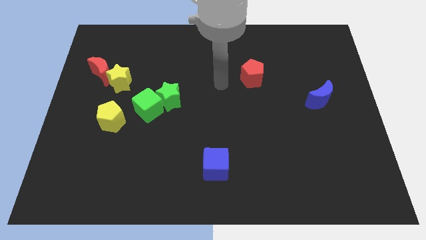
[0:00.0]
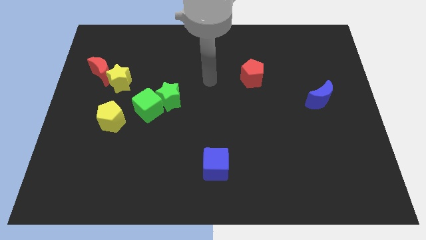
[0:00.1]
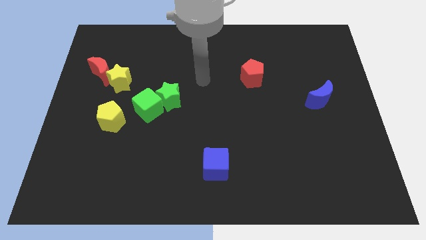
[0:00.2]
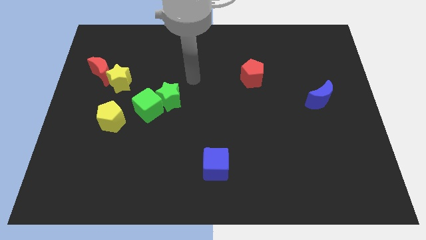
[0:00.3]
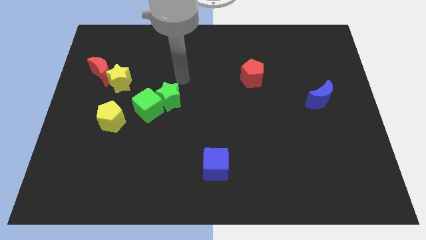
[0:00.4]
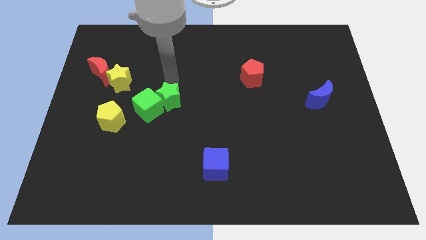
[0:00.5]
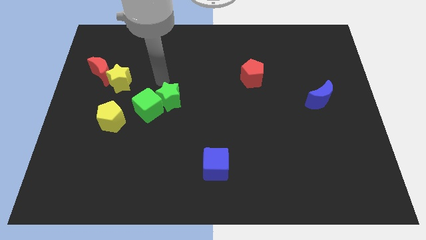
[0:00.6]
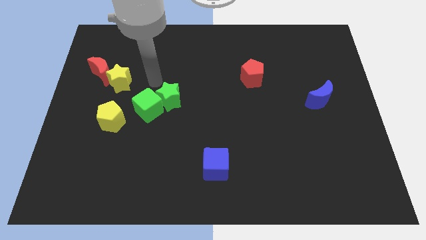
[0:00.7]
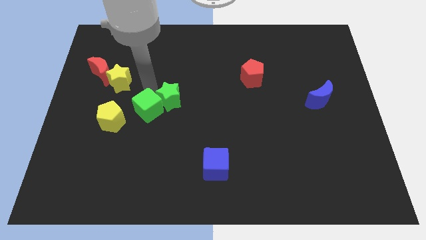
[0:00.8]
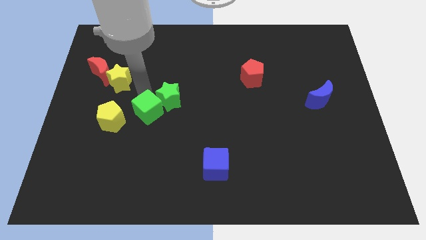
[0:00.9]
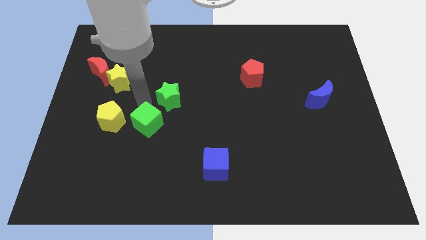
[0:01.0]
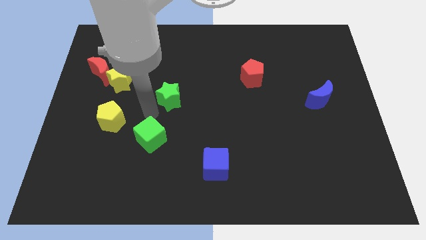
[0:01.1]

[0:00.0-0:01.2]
move the green star away from the green cube

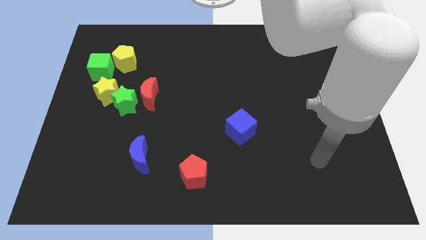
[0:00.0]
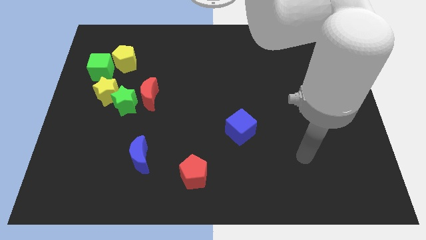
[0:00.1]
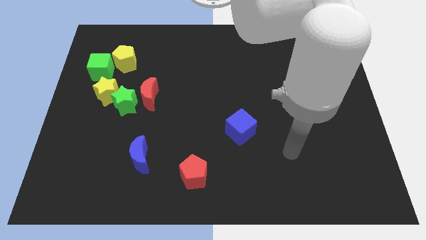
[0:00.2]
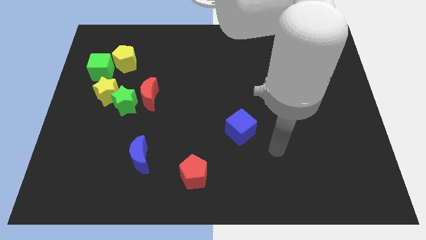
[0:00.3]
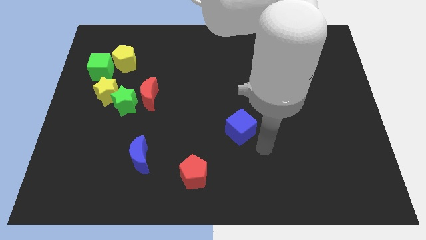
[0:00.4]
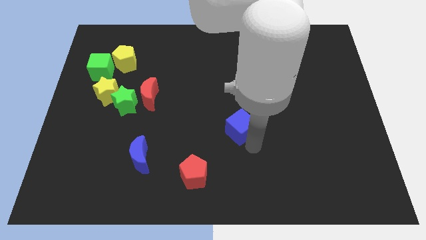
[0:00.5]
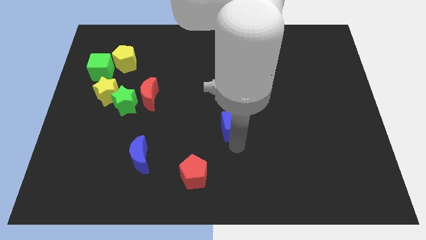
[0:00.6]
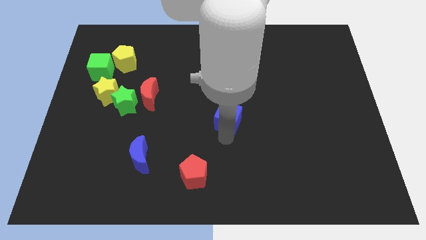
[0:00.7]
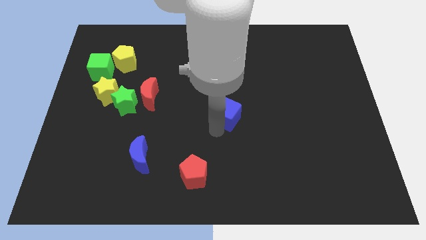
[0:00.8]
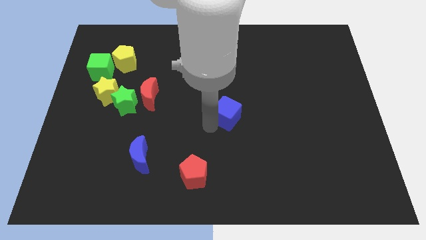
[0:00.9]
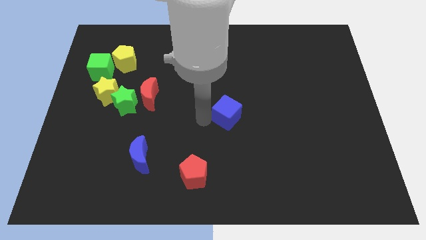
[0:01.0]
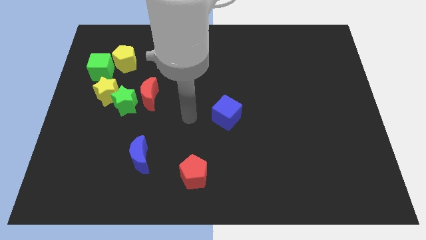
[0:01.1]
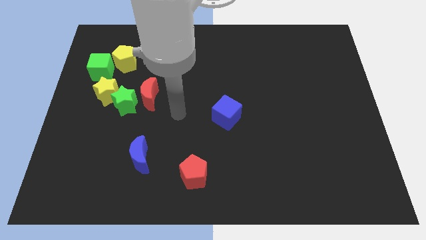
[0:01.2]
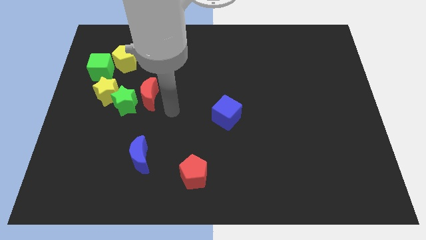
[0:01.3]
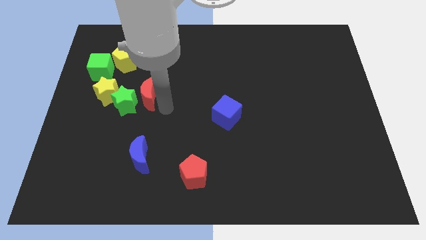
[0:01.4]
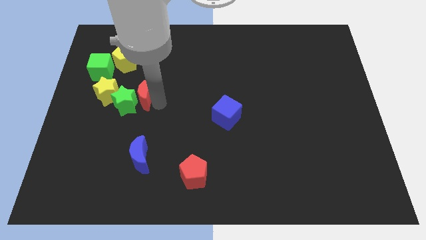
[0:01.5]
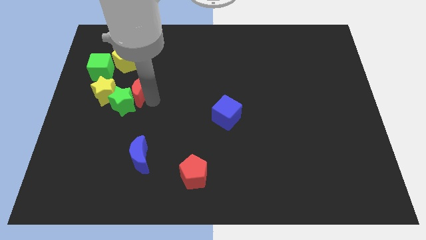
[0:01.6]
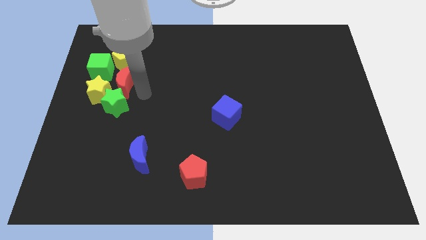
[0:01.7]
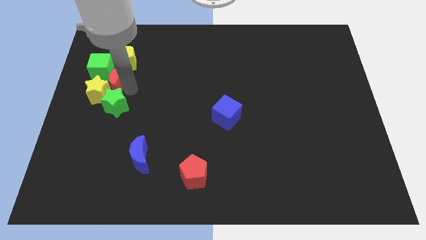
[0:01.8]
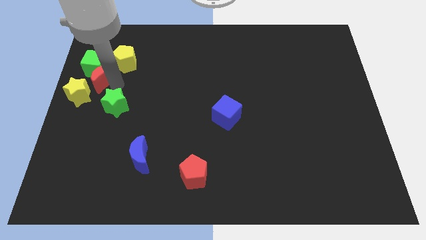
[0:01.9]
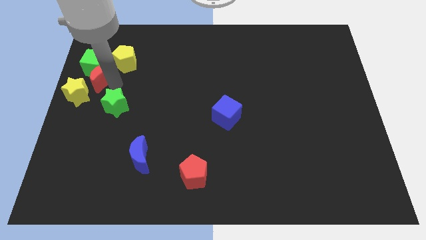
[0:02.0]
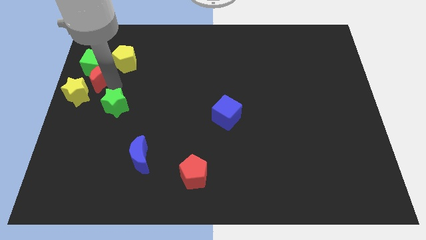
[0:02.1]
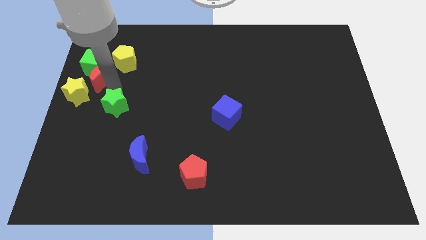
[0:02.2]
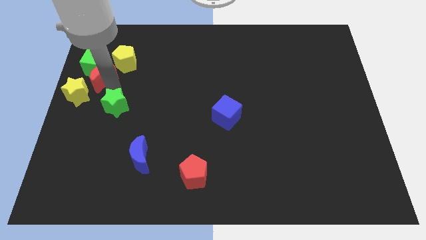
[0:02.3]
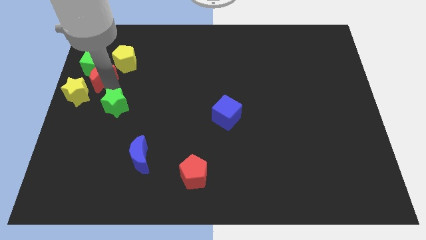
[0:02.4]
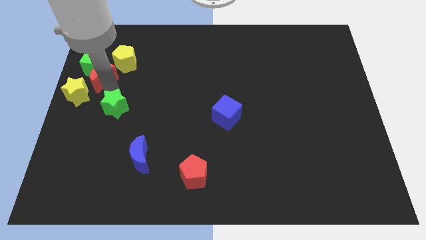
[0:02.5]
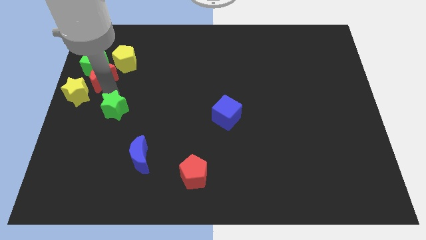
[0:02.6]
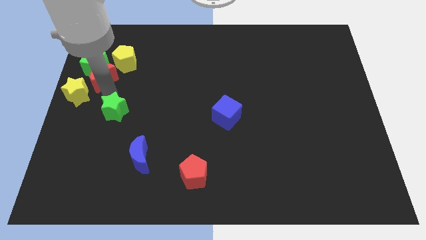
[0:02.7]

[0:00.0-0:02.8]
separate the green star from the red moon and yellow star

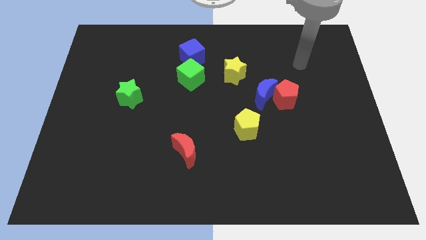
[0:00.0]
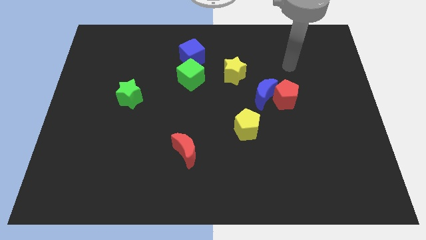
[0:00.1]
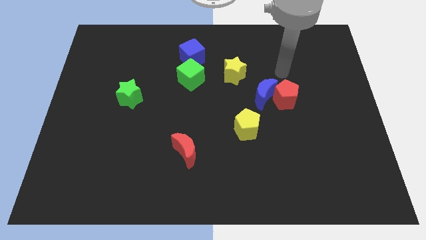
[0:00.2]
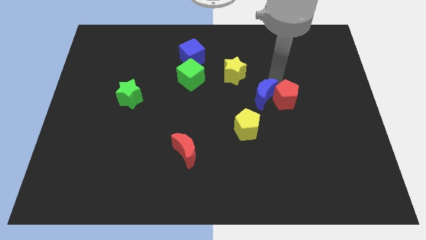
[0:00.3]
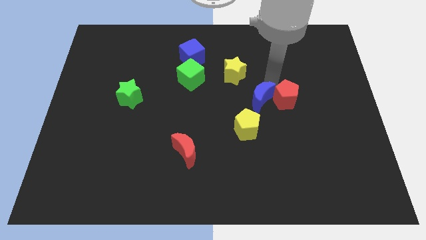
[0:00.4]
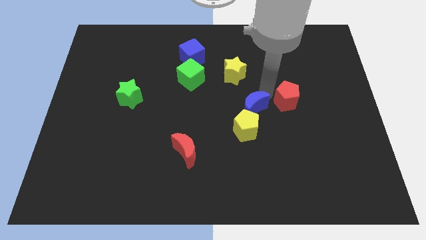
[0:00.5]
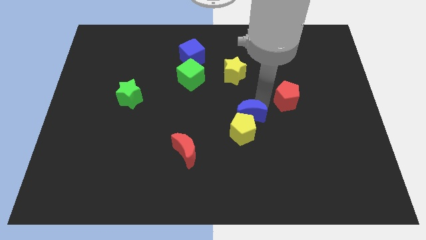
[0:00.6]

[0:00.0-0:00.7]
separate the red pentagon from the blue moon

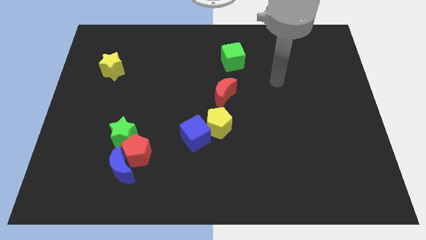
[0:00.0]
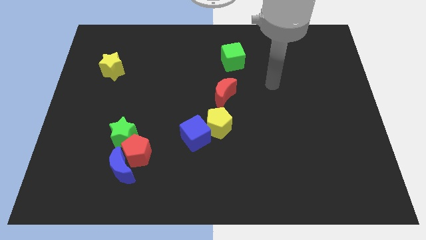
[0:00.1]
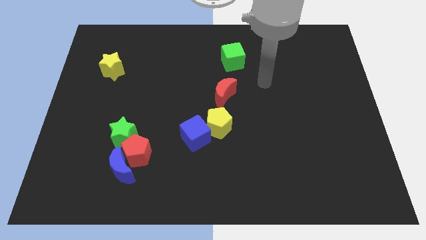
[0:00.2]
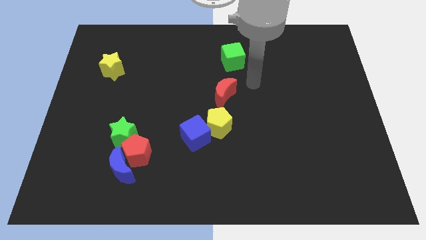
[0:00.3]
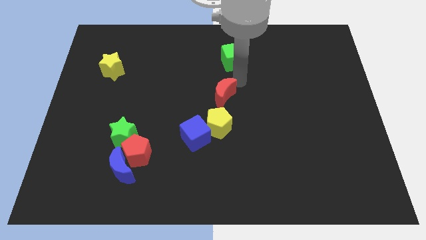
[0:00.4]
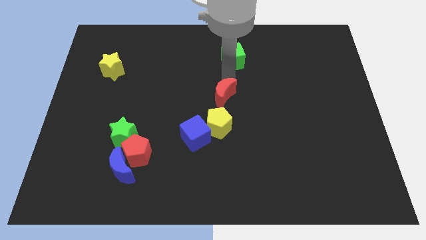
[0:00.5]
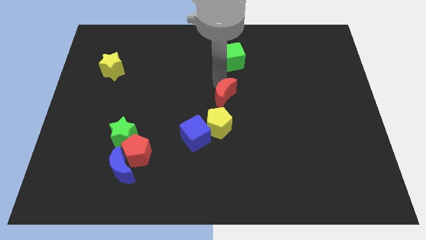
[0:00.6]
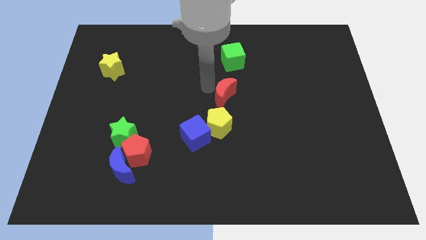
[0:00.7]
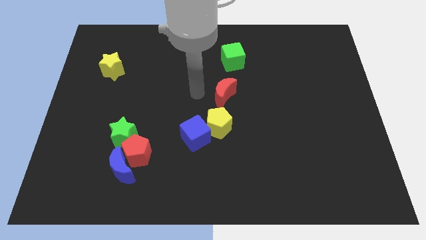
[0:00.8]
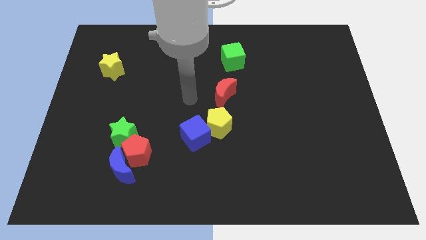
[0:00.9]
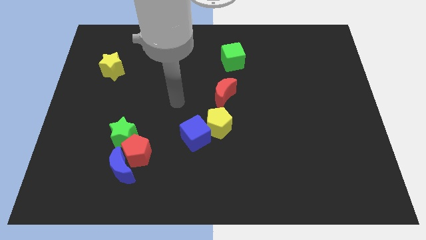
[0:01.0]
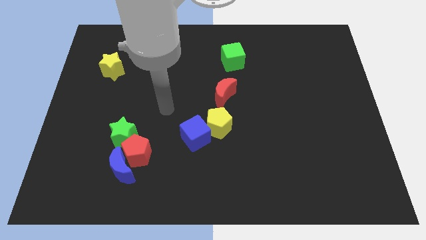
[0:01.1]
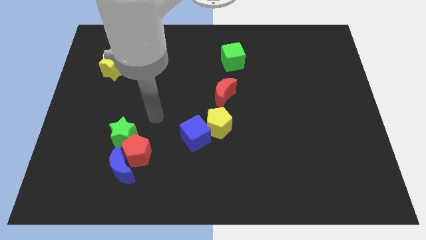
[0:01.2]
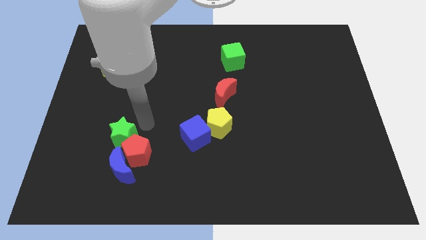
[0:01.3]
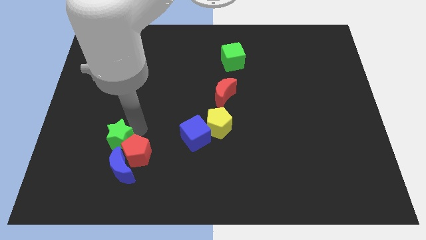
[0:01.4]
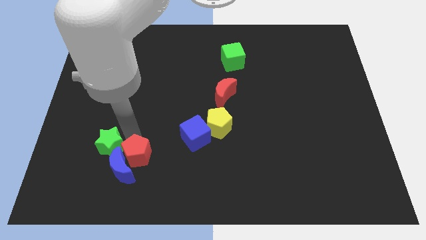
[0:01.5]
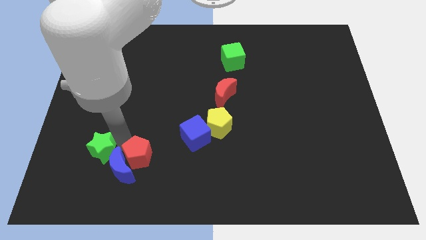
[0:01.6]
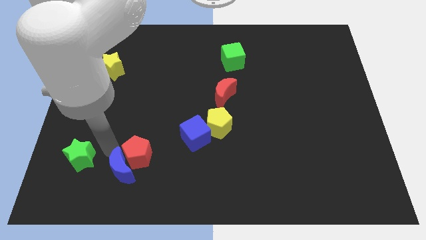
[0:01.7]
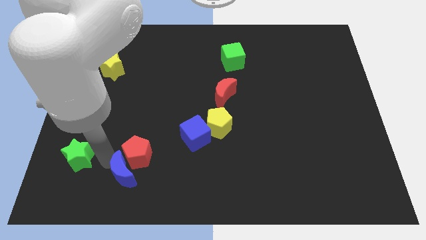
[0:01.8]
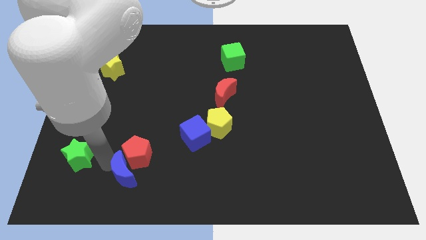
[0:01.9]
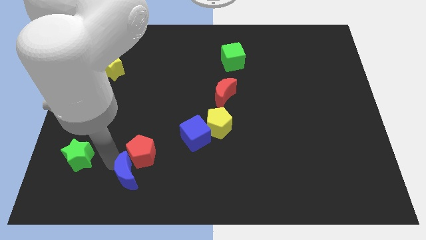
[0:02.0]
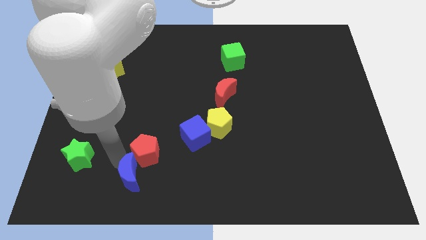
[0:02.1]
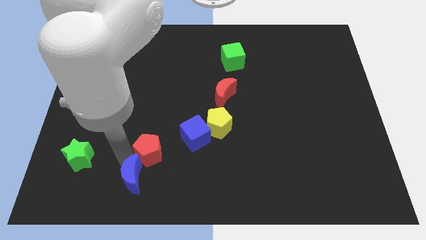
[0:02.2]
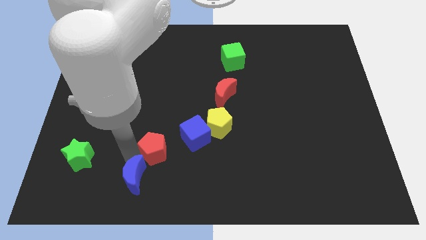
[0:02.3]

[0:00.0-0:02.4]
separate the red pentagon from the blue moon and green star

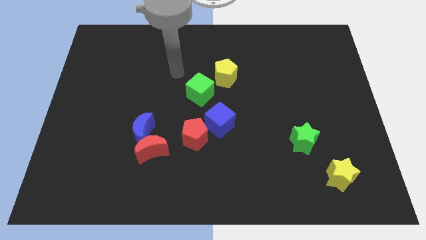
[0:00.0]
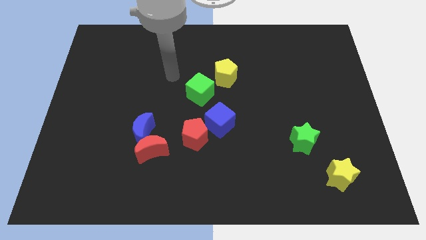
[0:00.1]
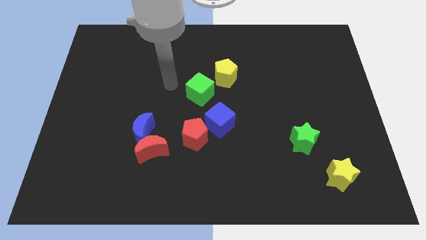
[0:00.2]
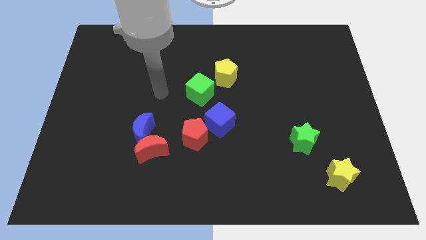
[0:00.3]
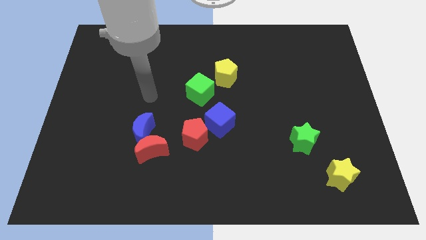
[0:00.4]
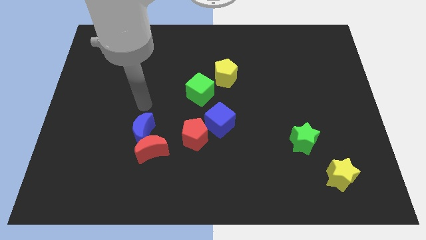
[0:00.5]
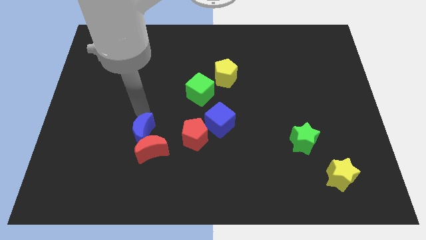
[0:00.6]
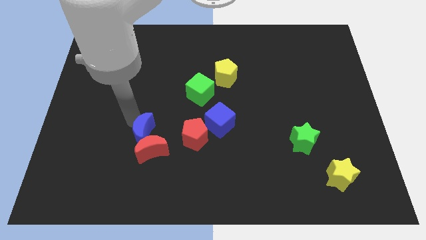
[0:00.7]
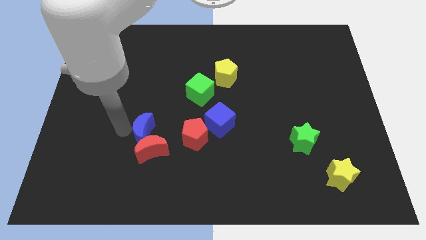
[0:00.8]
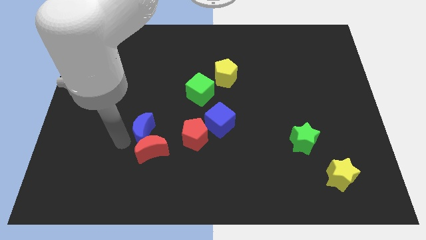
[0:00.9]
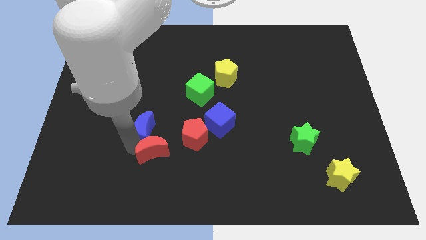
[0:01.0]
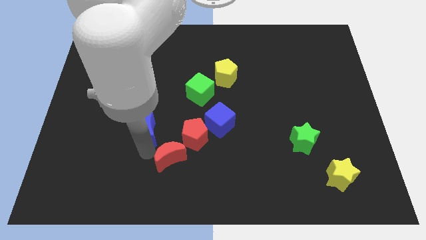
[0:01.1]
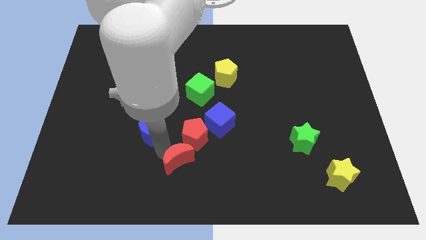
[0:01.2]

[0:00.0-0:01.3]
separate the blue moon from the red moon

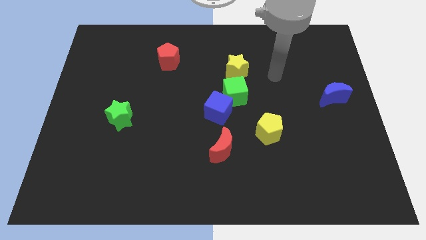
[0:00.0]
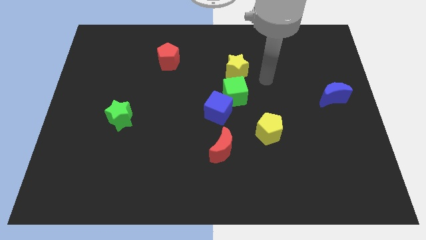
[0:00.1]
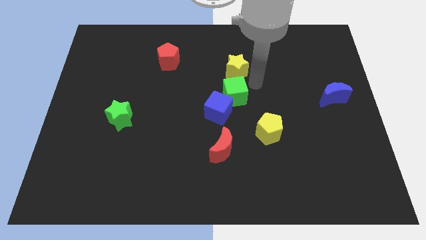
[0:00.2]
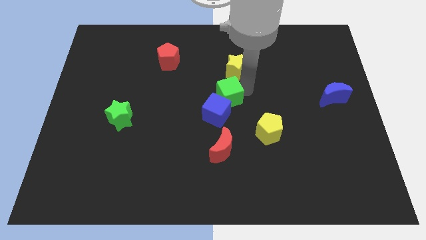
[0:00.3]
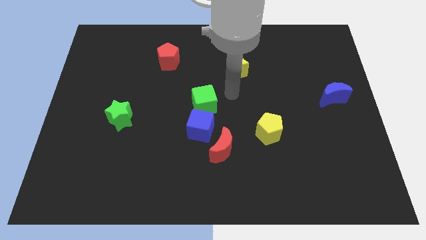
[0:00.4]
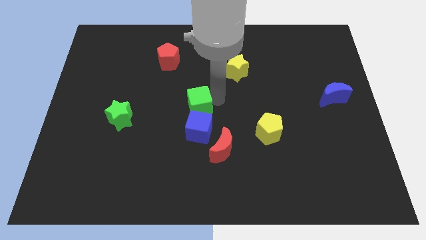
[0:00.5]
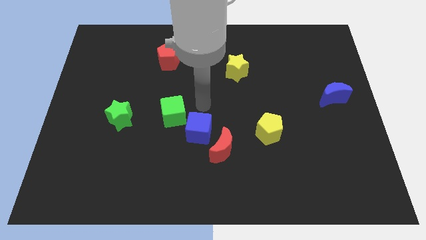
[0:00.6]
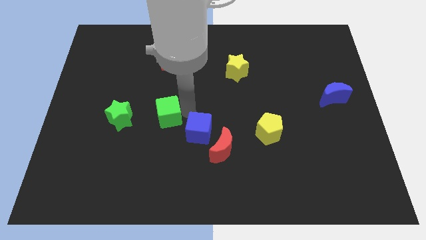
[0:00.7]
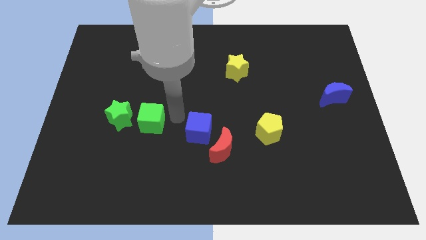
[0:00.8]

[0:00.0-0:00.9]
pull the blue cube apart from the green cube

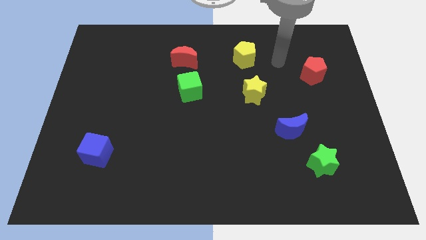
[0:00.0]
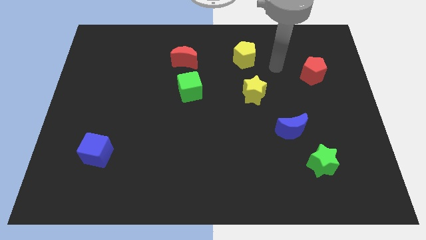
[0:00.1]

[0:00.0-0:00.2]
pull the blue moon apart from the green star
